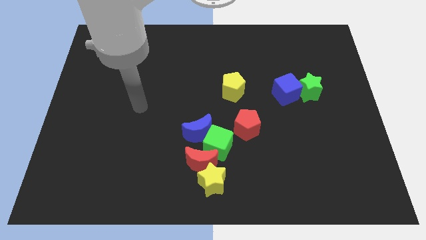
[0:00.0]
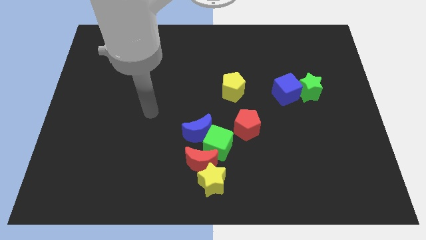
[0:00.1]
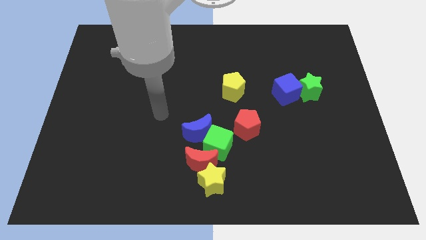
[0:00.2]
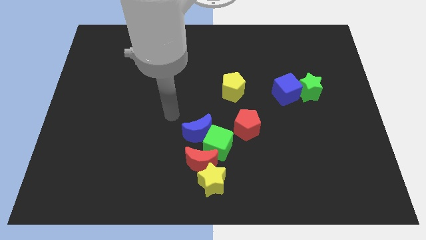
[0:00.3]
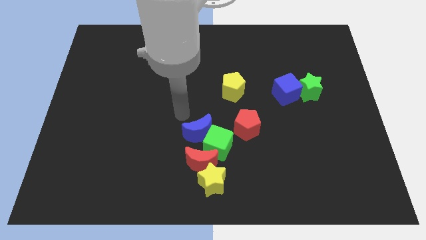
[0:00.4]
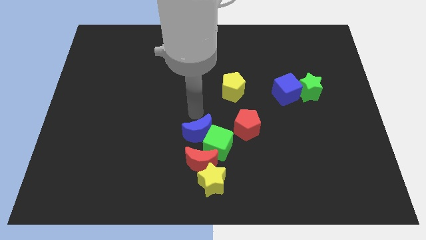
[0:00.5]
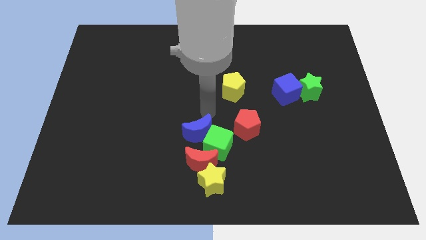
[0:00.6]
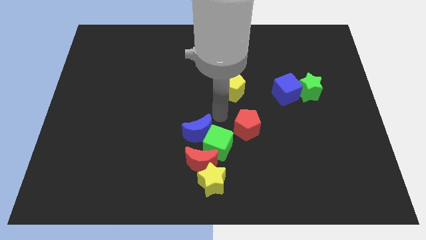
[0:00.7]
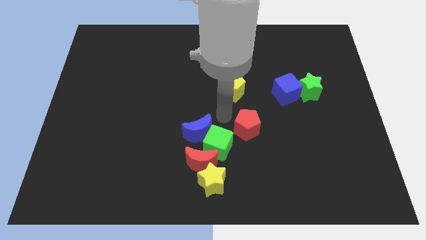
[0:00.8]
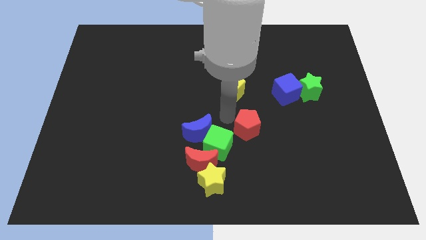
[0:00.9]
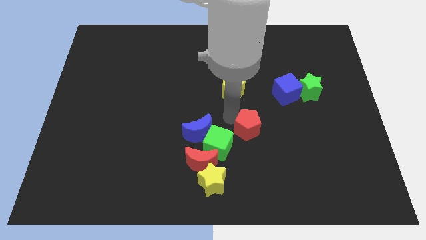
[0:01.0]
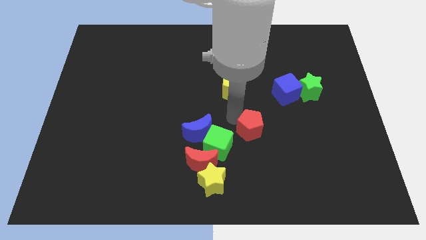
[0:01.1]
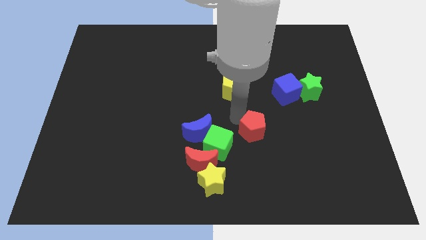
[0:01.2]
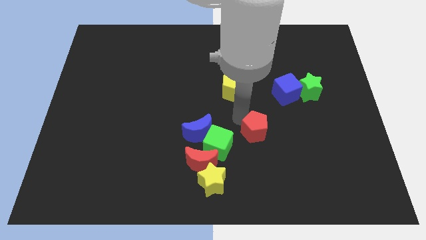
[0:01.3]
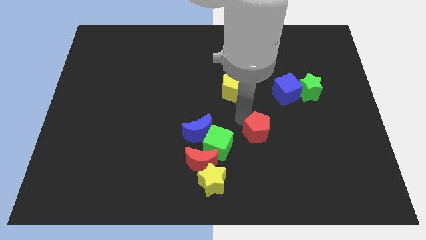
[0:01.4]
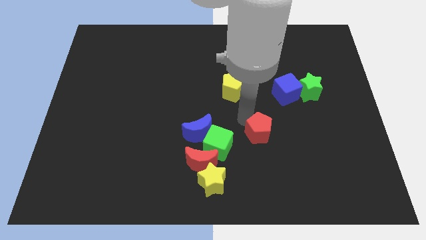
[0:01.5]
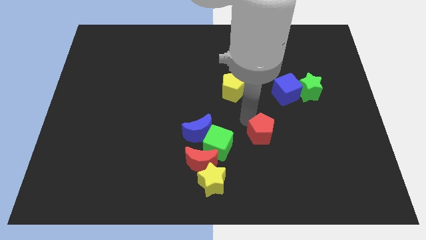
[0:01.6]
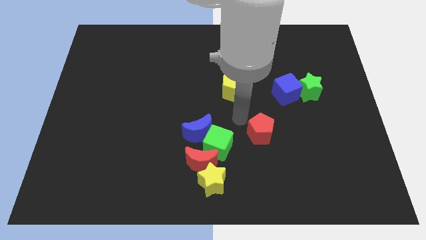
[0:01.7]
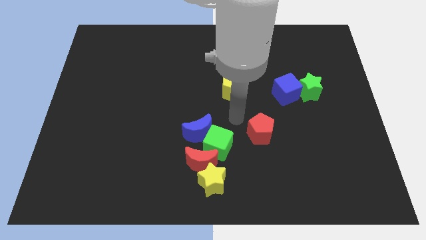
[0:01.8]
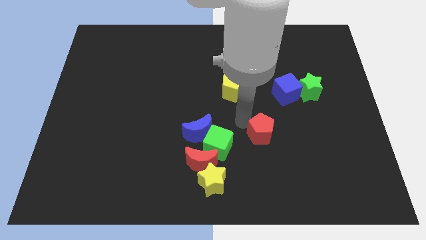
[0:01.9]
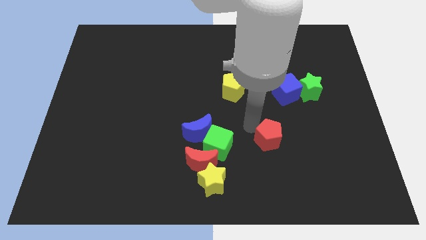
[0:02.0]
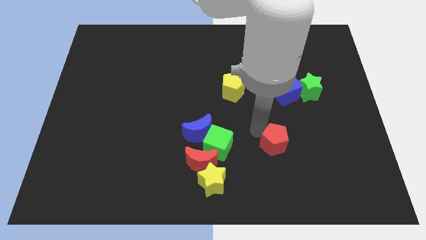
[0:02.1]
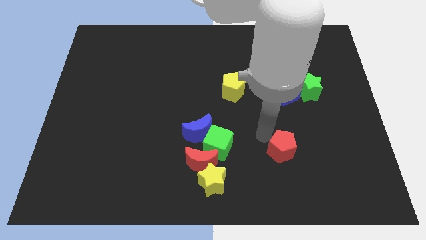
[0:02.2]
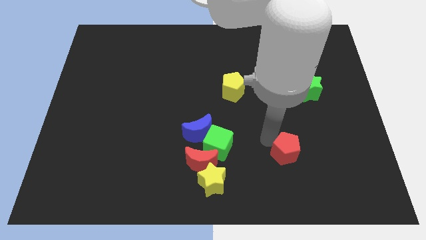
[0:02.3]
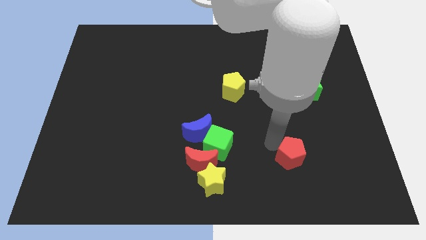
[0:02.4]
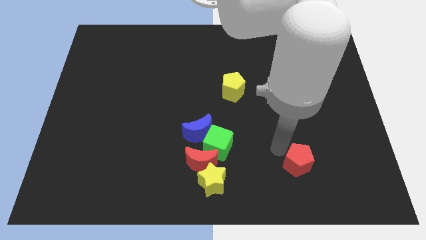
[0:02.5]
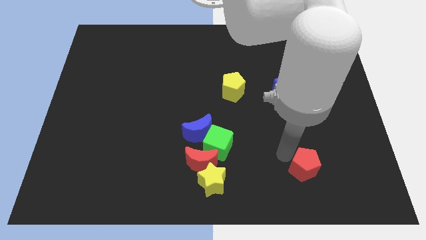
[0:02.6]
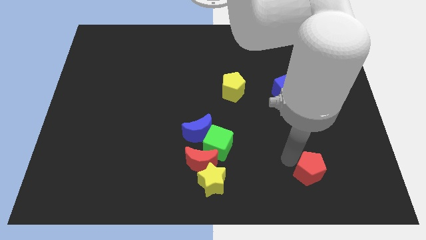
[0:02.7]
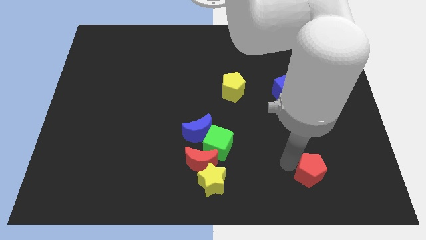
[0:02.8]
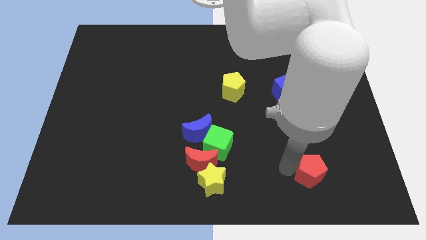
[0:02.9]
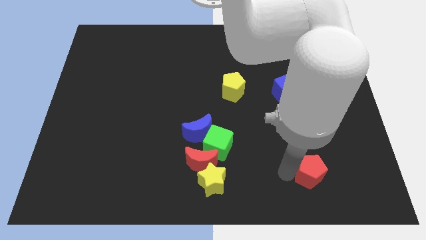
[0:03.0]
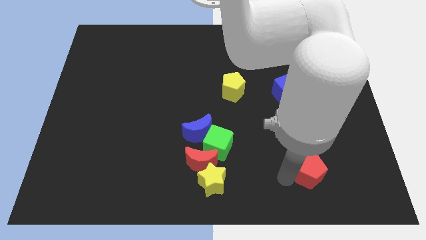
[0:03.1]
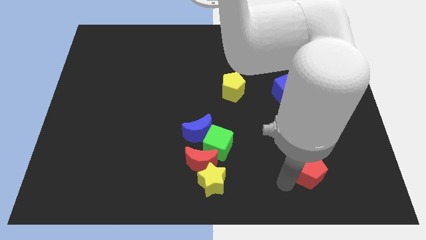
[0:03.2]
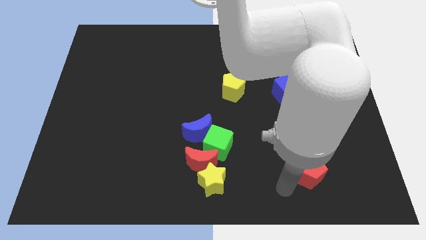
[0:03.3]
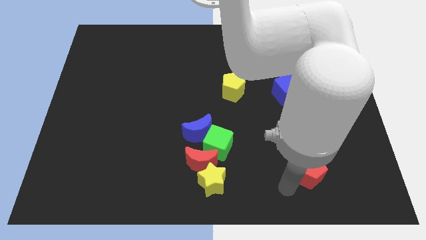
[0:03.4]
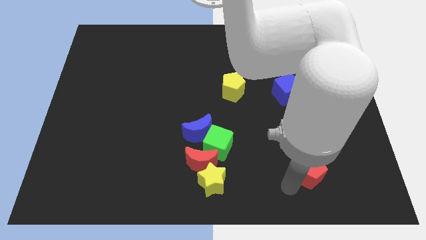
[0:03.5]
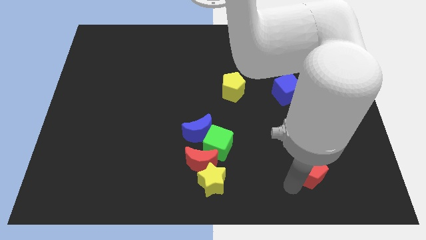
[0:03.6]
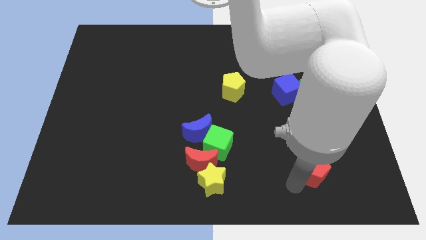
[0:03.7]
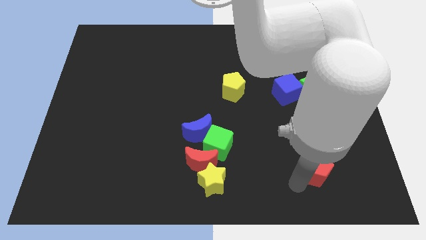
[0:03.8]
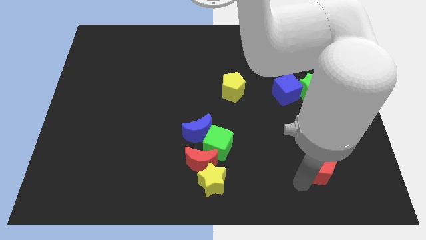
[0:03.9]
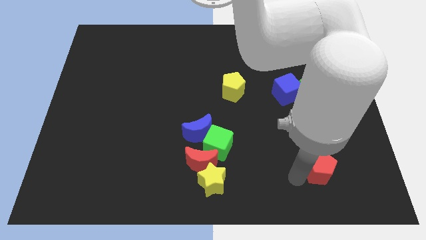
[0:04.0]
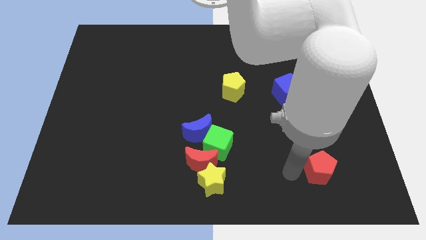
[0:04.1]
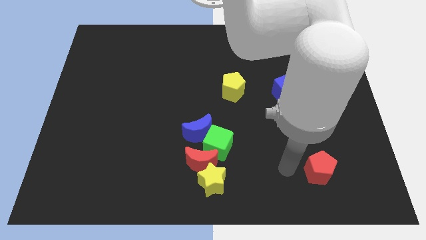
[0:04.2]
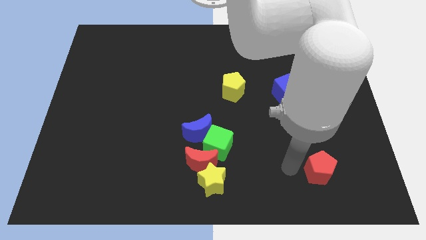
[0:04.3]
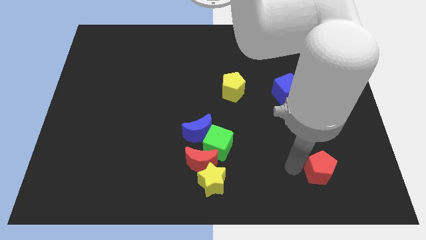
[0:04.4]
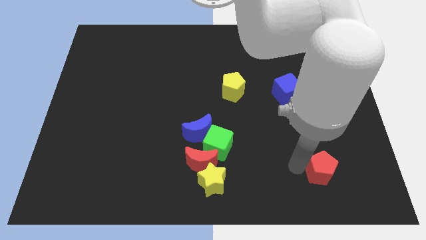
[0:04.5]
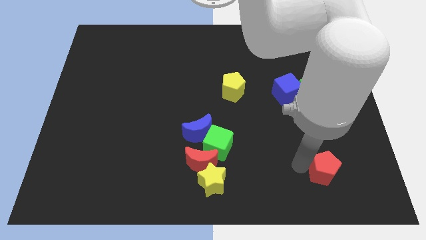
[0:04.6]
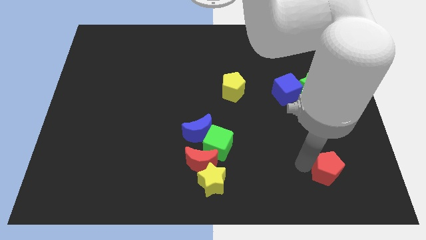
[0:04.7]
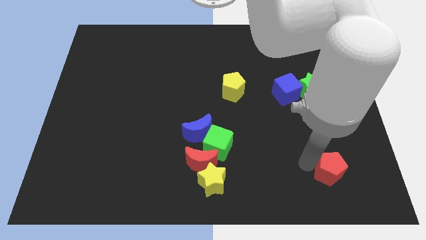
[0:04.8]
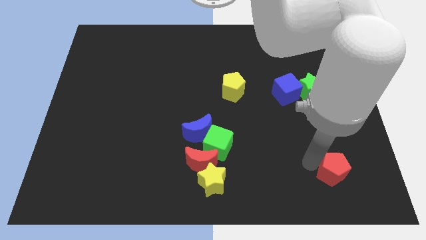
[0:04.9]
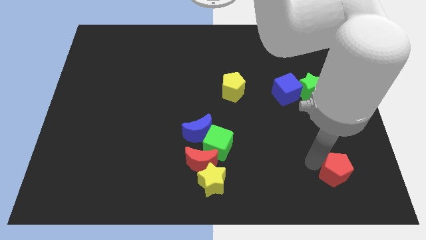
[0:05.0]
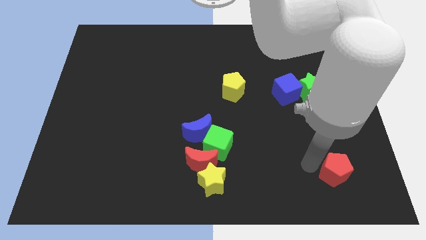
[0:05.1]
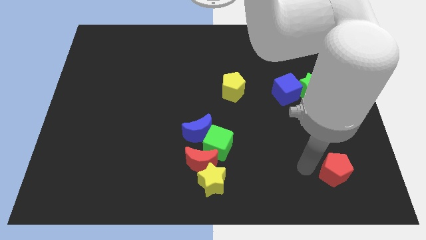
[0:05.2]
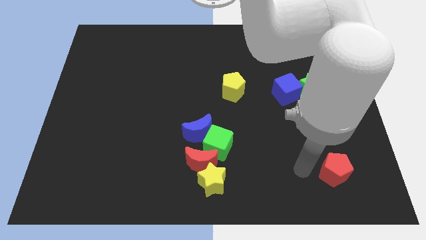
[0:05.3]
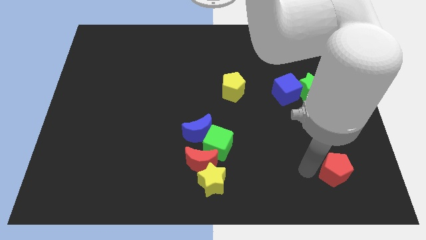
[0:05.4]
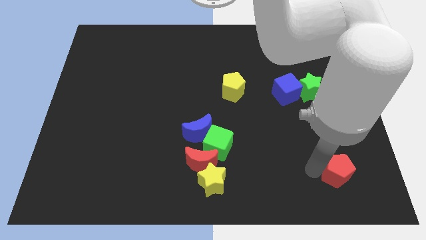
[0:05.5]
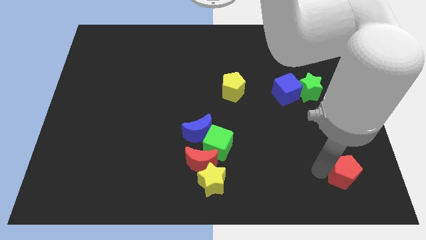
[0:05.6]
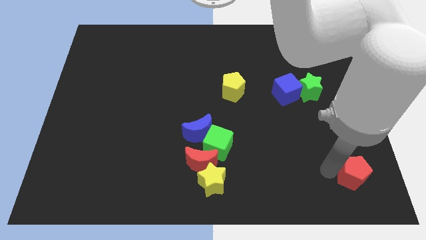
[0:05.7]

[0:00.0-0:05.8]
move the red pentagon to the lower right corner

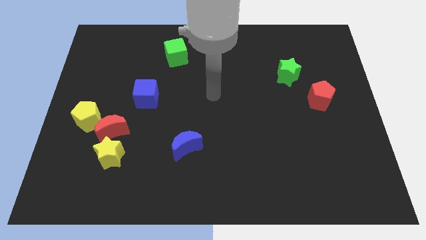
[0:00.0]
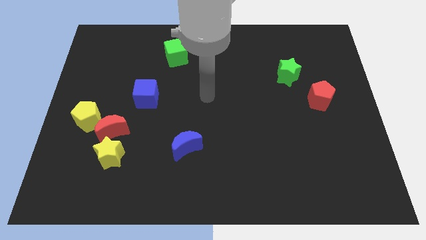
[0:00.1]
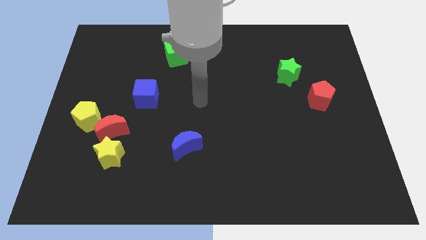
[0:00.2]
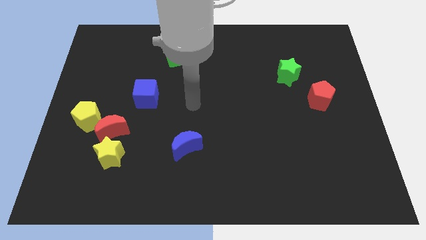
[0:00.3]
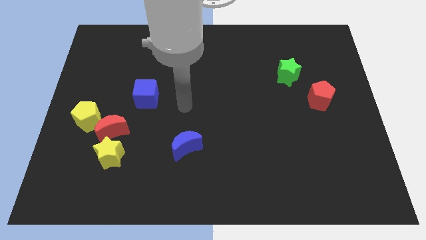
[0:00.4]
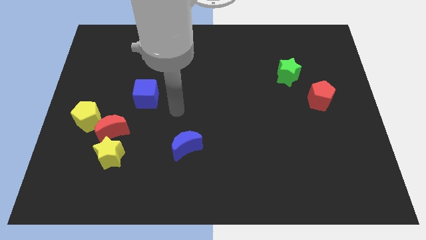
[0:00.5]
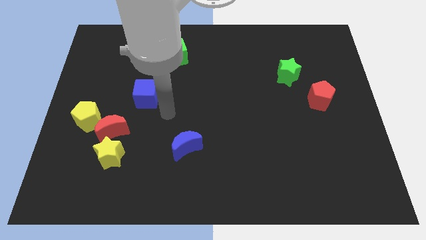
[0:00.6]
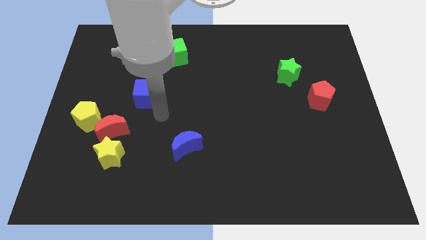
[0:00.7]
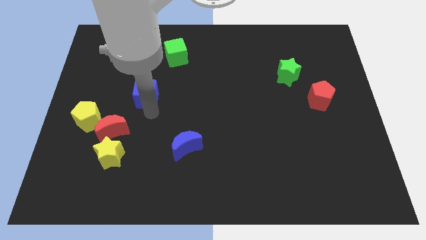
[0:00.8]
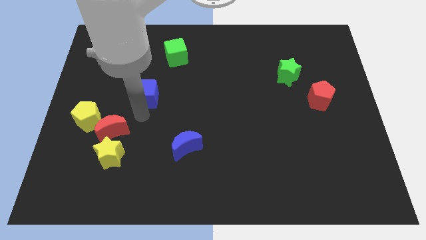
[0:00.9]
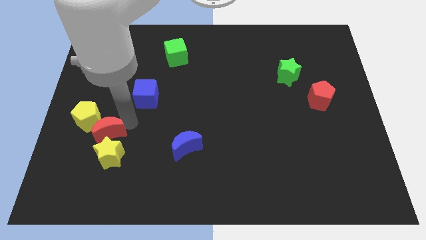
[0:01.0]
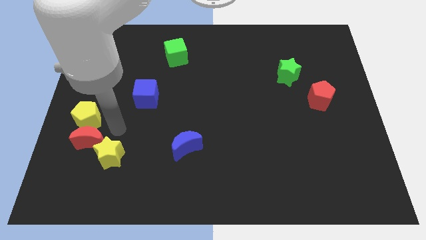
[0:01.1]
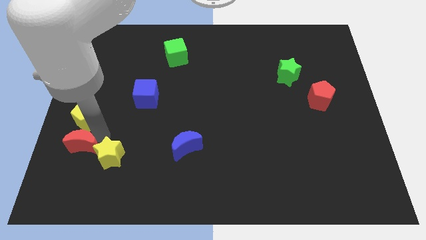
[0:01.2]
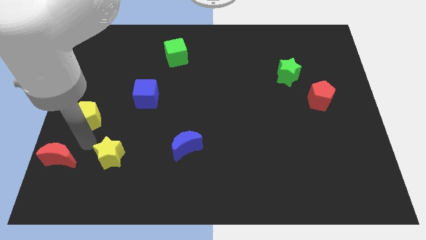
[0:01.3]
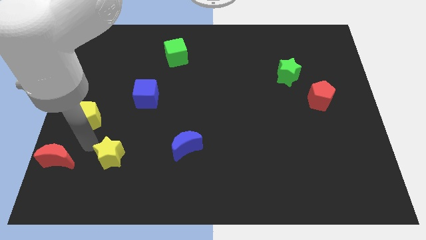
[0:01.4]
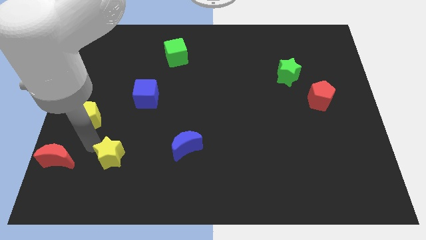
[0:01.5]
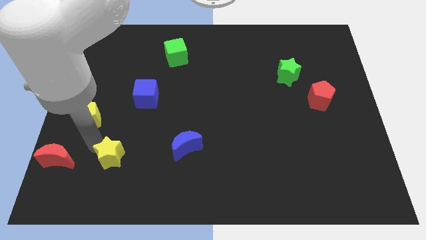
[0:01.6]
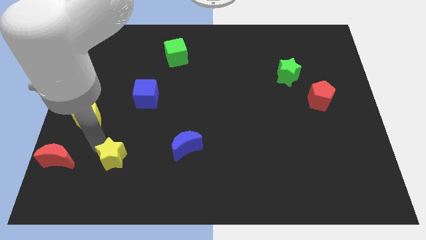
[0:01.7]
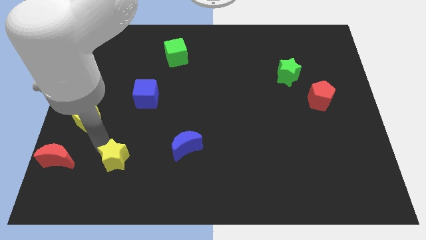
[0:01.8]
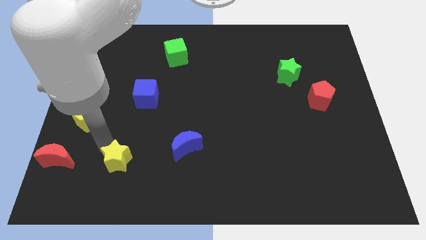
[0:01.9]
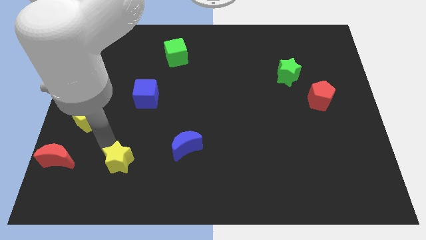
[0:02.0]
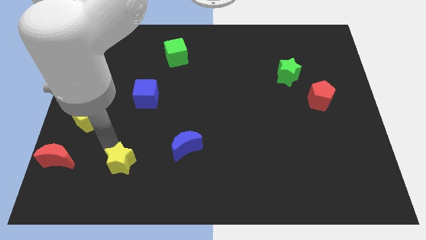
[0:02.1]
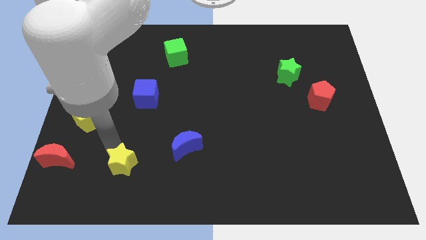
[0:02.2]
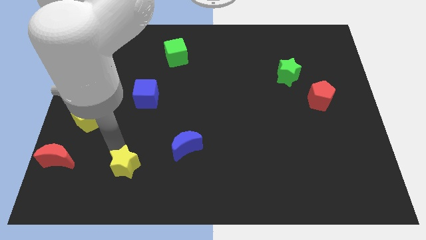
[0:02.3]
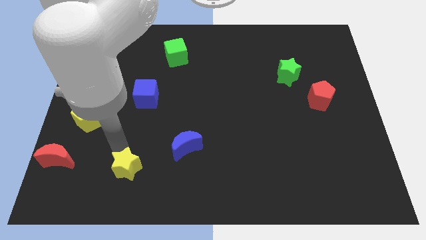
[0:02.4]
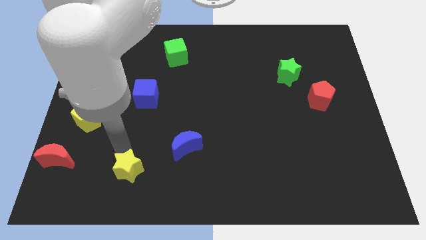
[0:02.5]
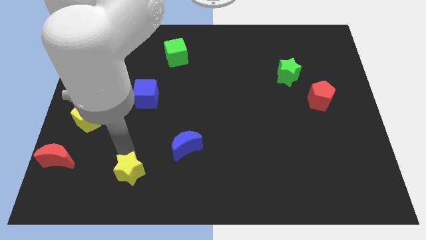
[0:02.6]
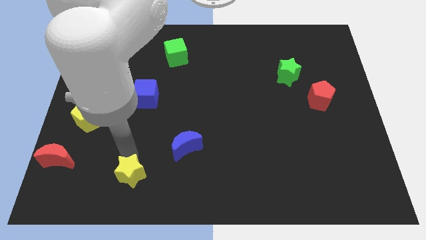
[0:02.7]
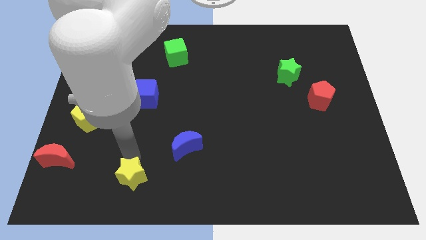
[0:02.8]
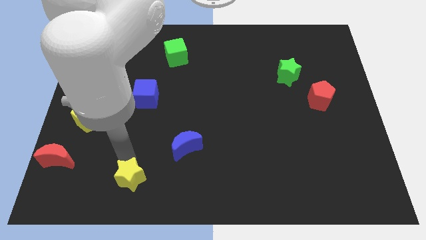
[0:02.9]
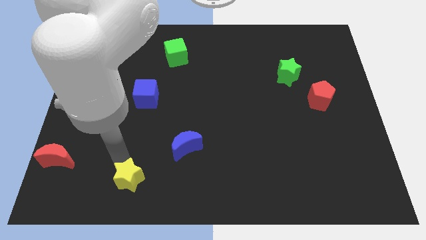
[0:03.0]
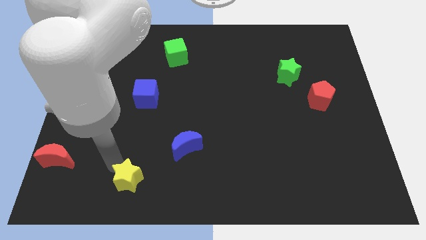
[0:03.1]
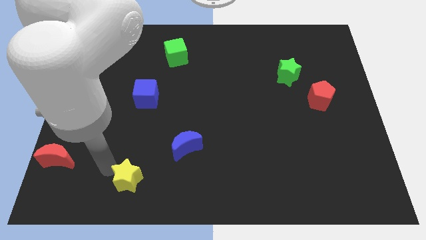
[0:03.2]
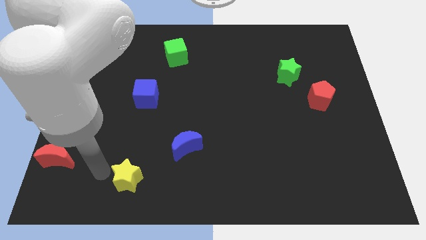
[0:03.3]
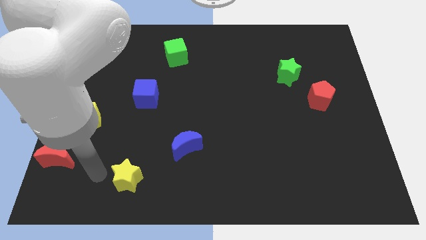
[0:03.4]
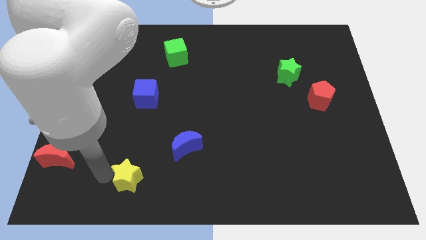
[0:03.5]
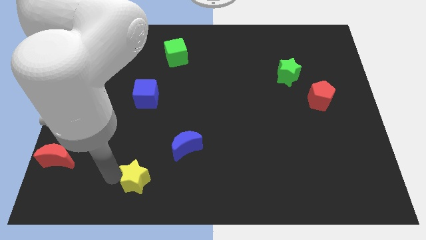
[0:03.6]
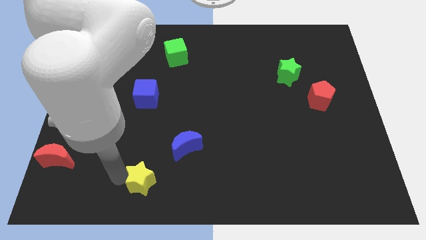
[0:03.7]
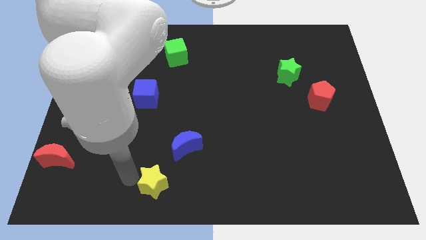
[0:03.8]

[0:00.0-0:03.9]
move the yellow star to the bottom
